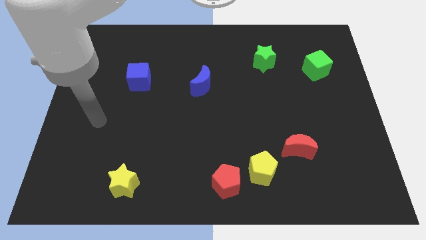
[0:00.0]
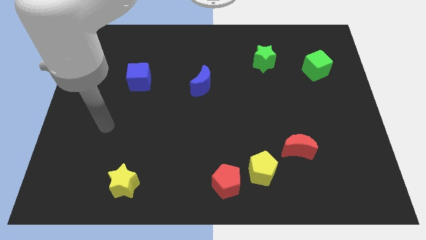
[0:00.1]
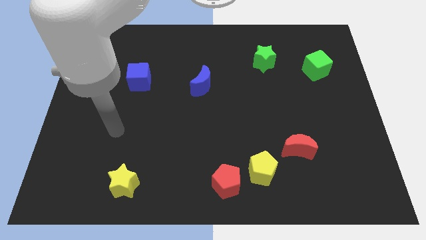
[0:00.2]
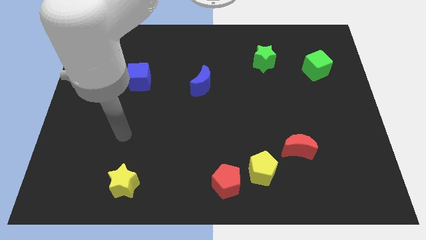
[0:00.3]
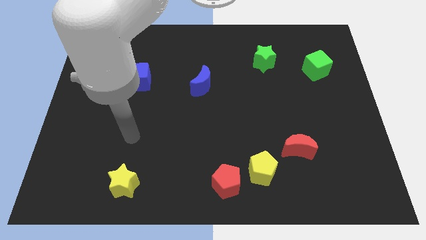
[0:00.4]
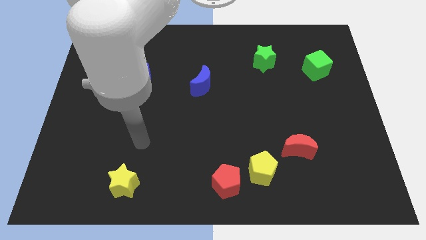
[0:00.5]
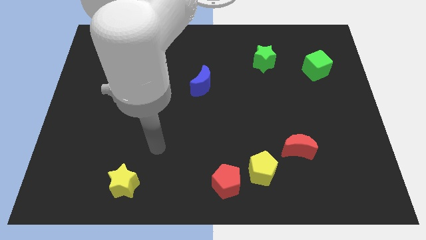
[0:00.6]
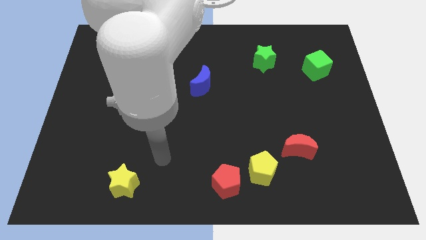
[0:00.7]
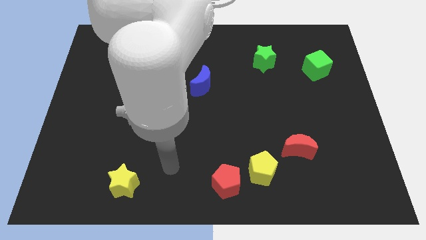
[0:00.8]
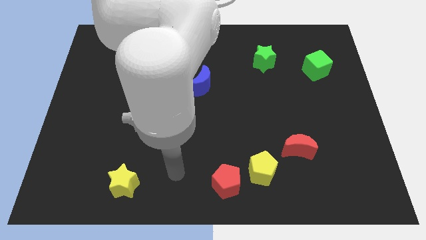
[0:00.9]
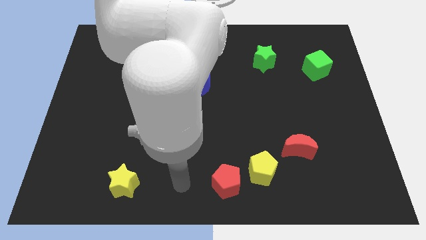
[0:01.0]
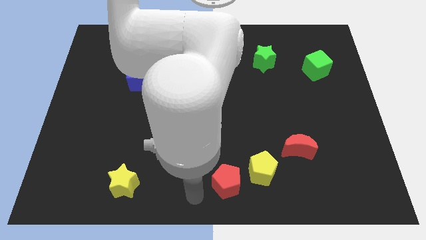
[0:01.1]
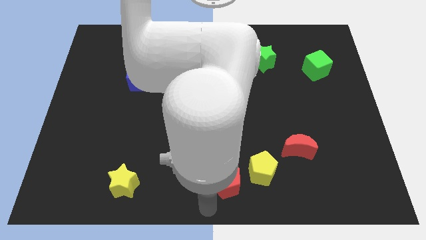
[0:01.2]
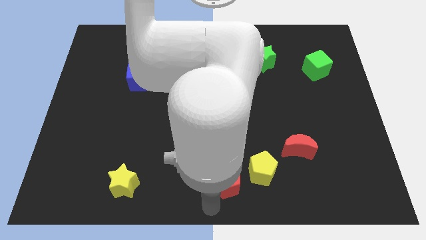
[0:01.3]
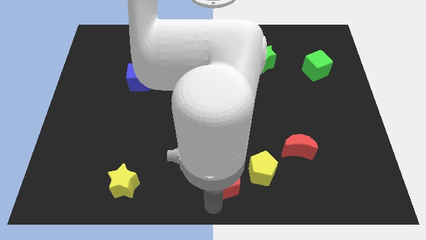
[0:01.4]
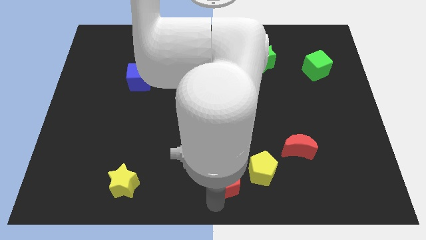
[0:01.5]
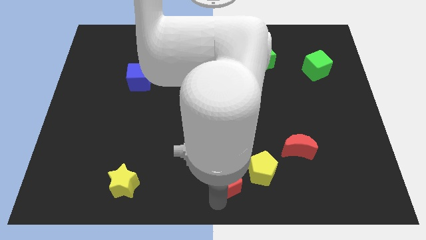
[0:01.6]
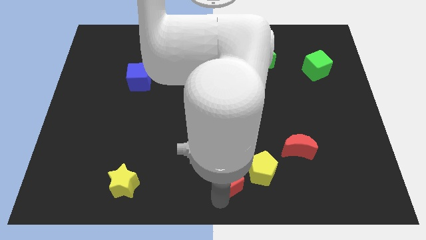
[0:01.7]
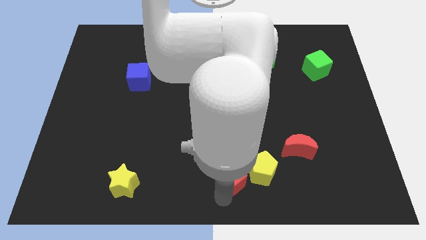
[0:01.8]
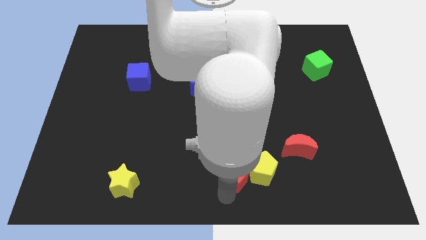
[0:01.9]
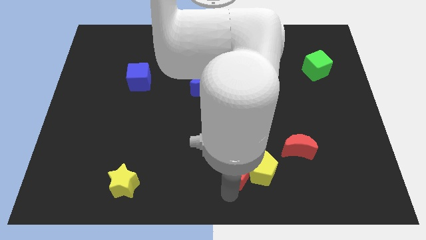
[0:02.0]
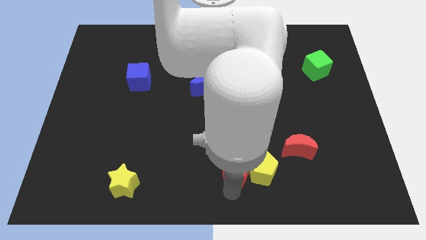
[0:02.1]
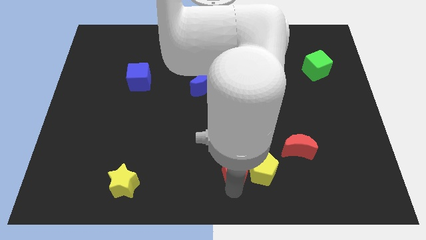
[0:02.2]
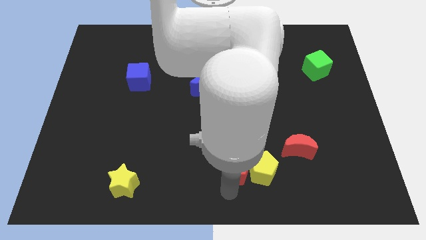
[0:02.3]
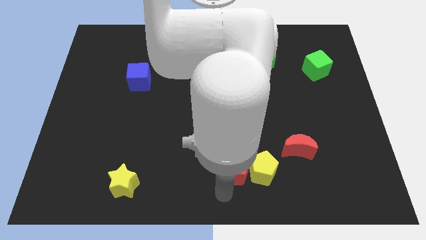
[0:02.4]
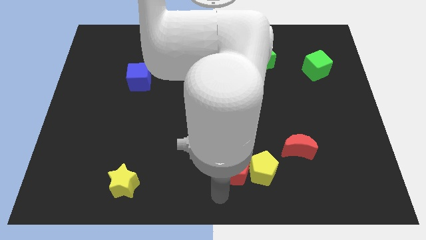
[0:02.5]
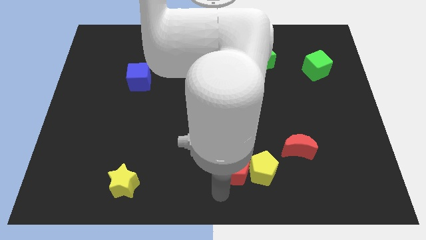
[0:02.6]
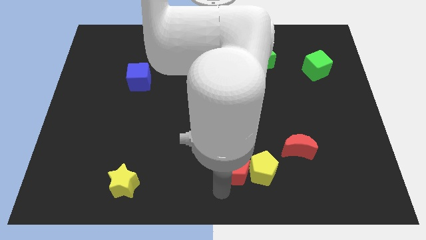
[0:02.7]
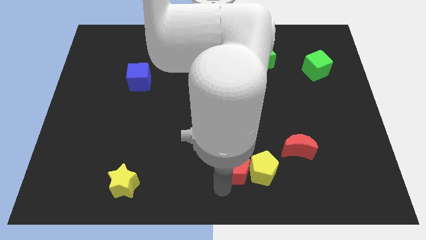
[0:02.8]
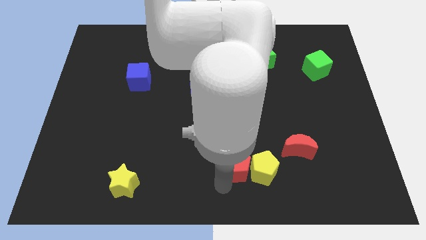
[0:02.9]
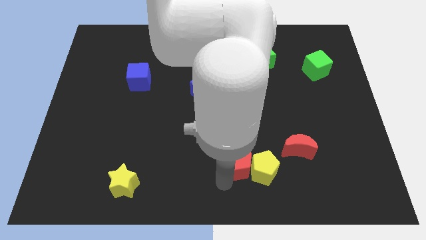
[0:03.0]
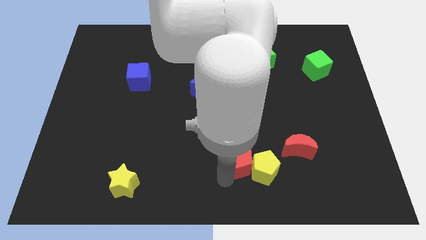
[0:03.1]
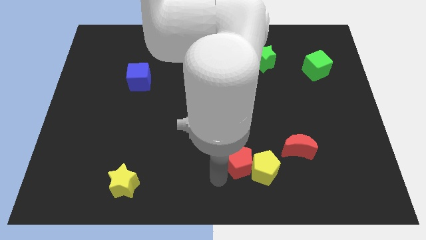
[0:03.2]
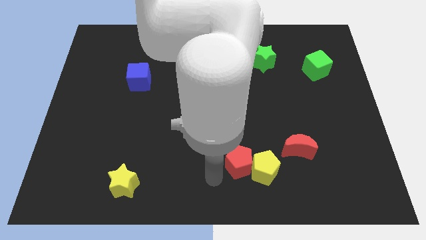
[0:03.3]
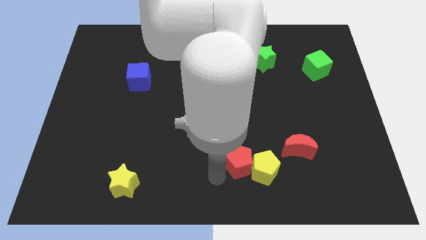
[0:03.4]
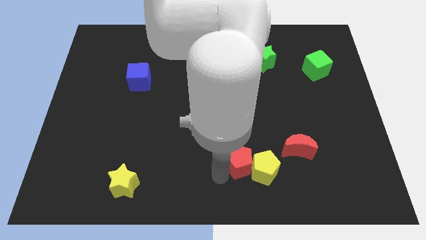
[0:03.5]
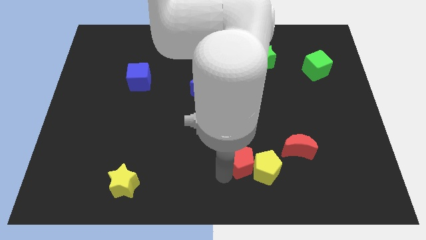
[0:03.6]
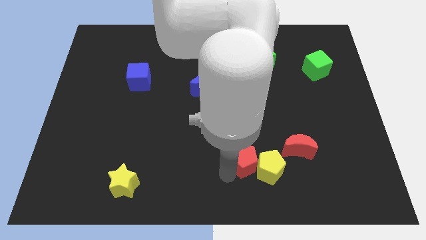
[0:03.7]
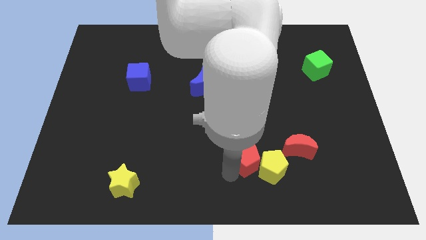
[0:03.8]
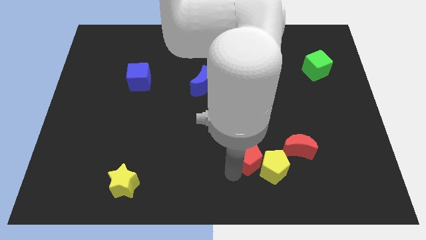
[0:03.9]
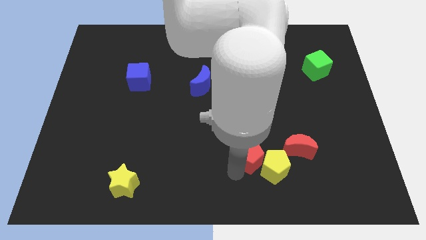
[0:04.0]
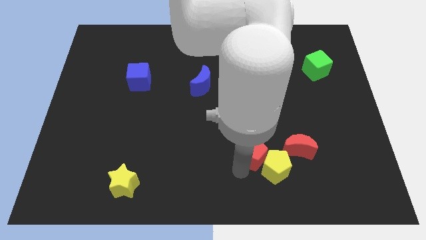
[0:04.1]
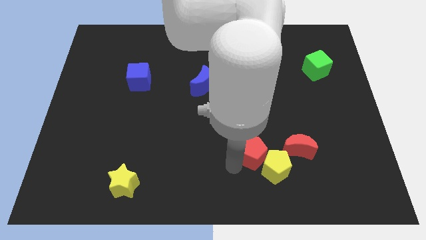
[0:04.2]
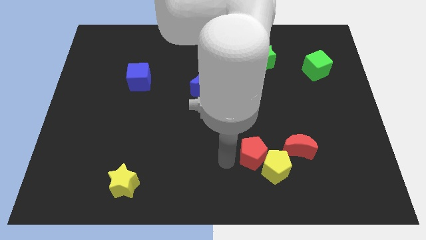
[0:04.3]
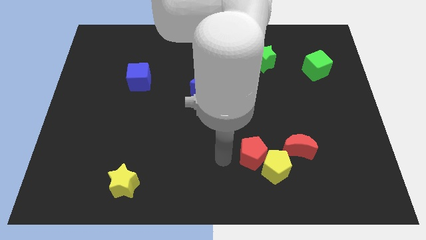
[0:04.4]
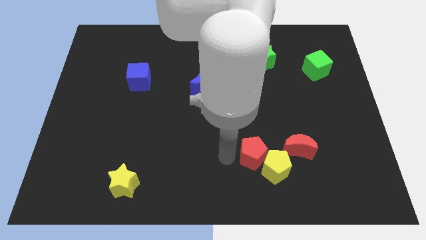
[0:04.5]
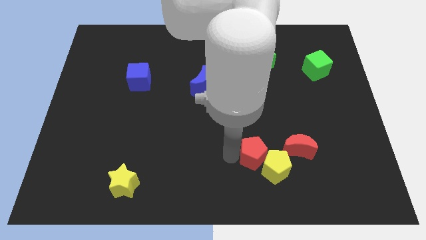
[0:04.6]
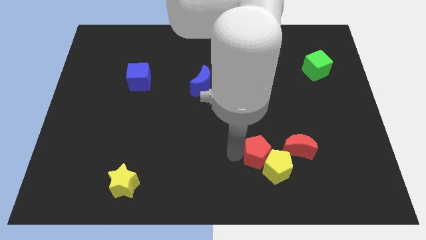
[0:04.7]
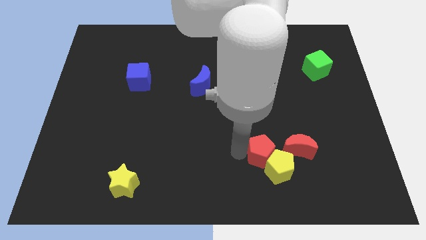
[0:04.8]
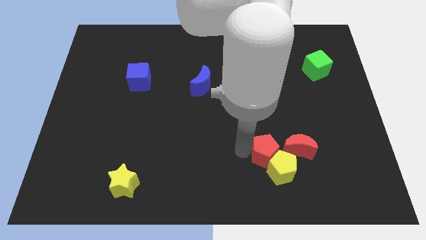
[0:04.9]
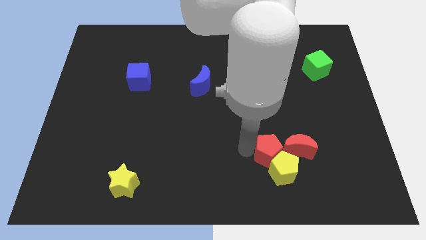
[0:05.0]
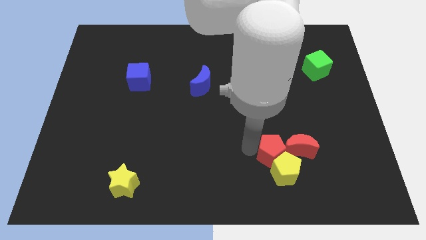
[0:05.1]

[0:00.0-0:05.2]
slide the red pentagon towards the red moon

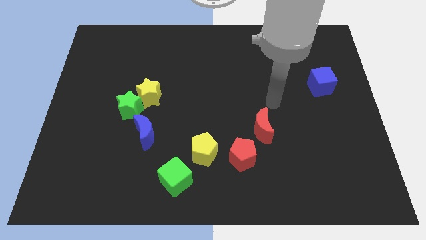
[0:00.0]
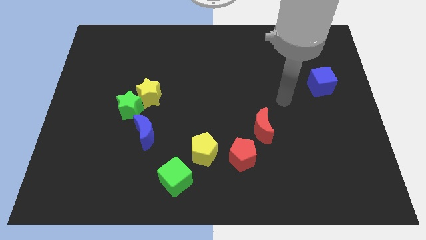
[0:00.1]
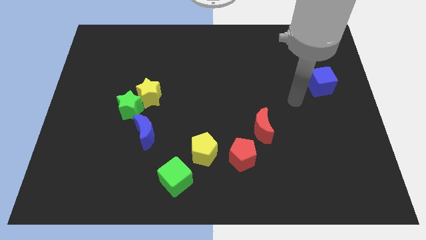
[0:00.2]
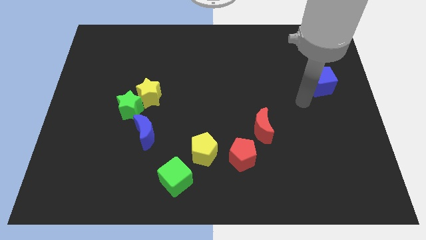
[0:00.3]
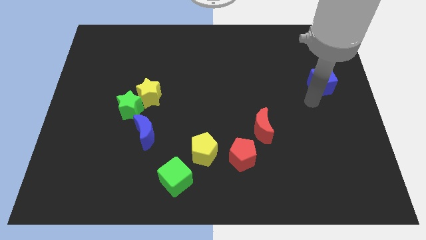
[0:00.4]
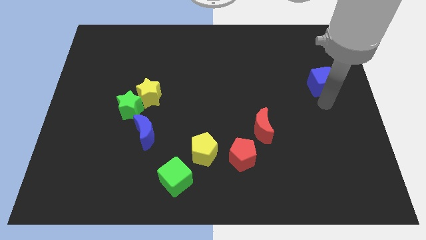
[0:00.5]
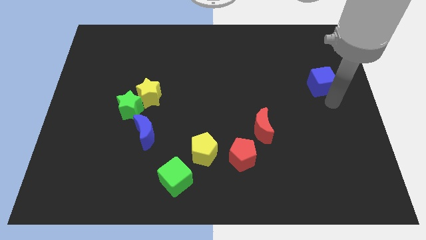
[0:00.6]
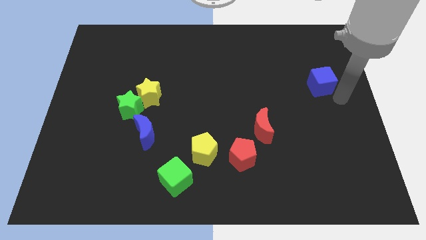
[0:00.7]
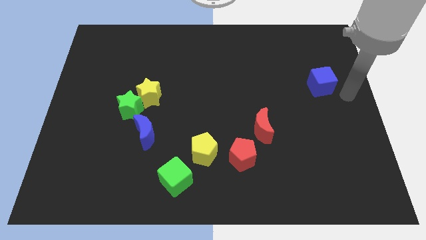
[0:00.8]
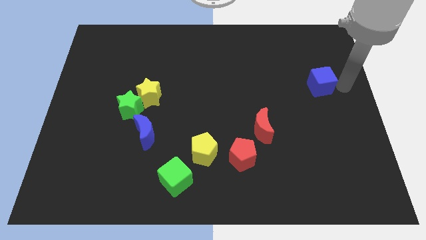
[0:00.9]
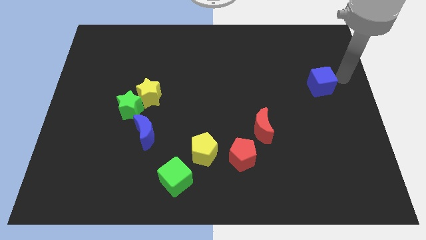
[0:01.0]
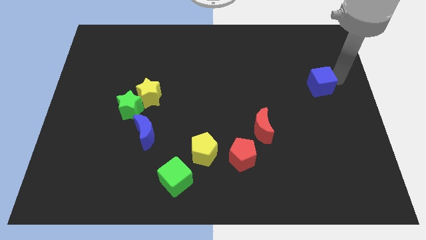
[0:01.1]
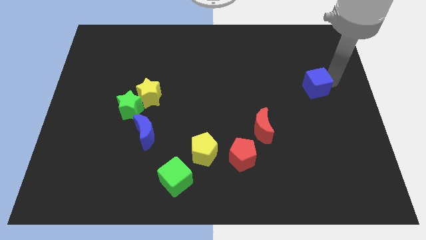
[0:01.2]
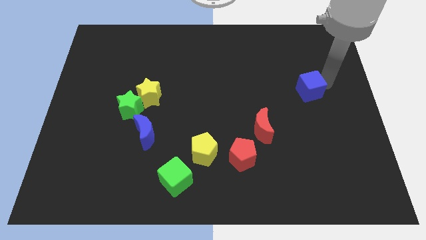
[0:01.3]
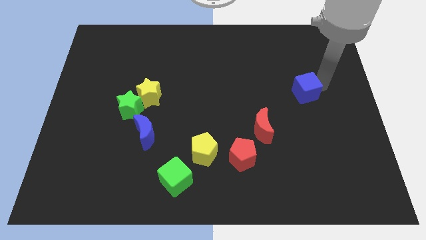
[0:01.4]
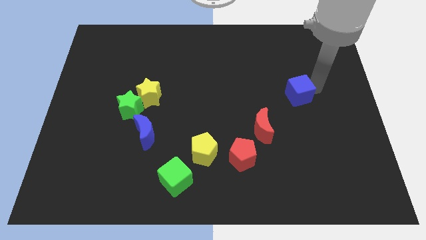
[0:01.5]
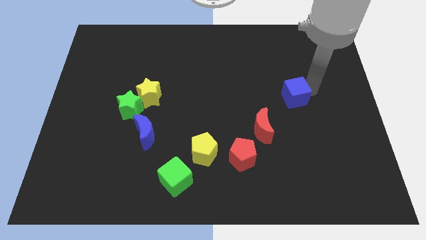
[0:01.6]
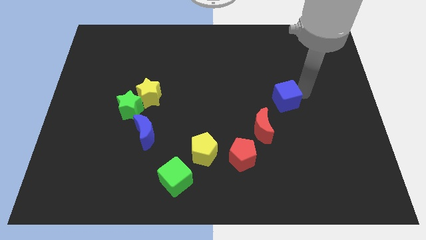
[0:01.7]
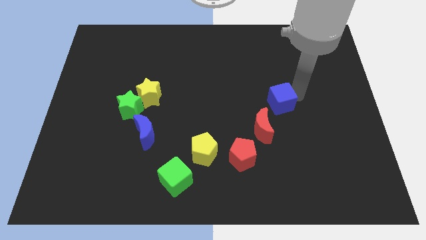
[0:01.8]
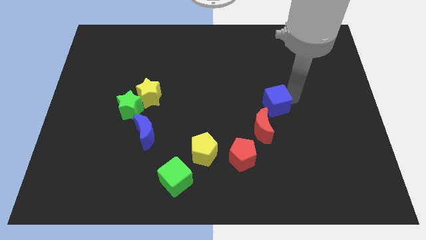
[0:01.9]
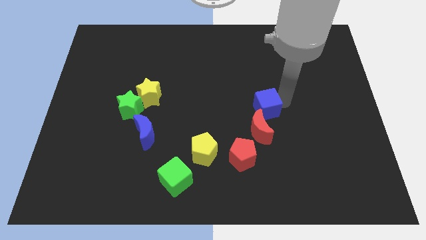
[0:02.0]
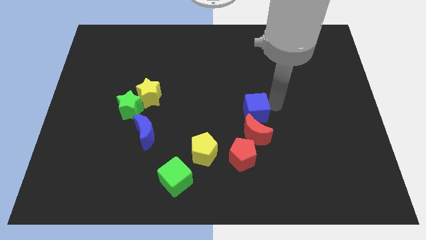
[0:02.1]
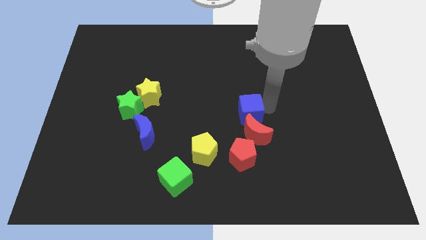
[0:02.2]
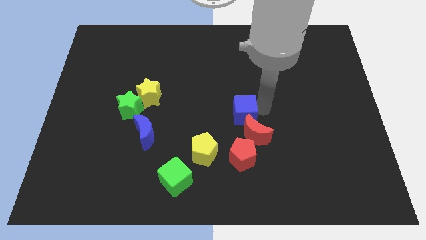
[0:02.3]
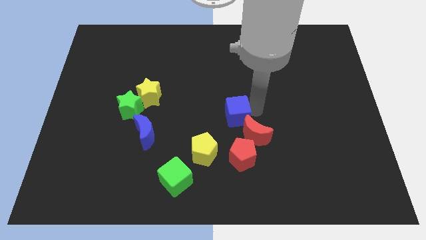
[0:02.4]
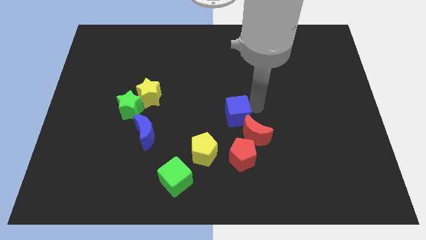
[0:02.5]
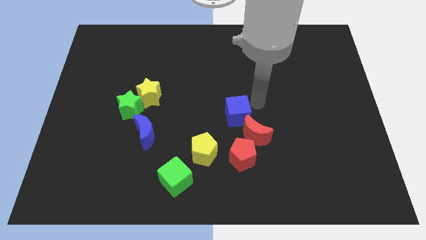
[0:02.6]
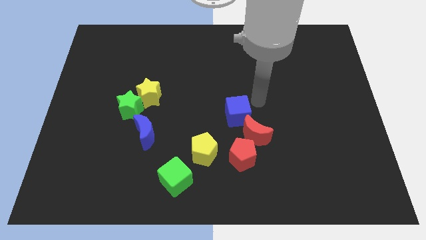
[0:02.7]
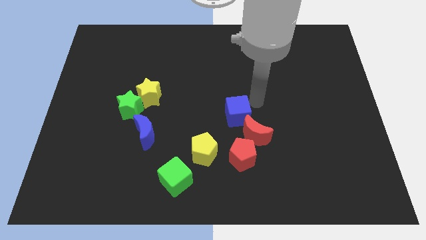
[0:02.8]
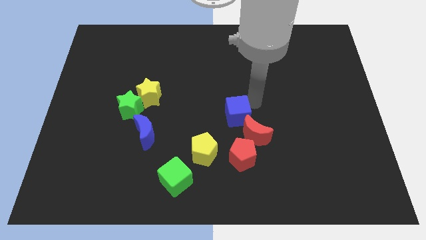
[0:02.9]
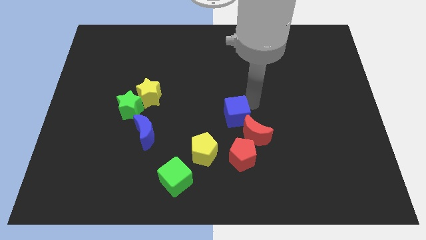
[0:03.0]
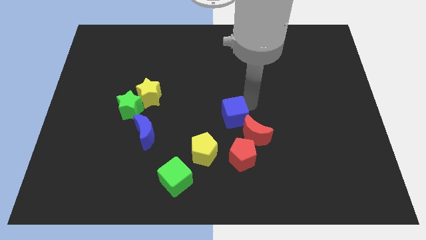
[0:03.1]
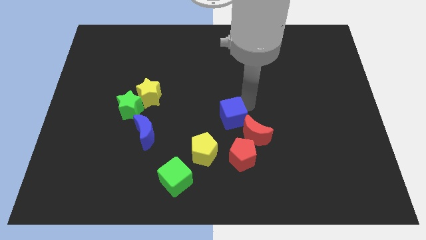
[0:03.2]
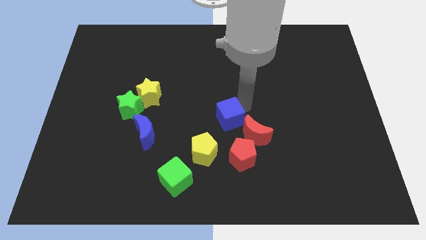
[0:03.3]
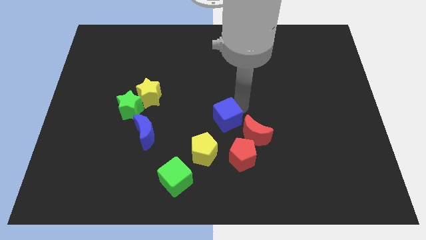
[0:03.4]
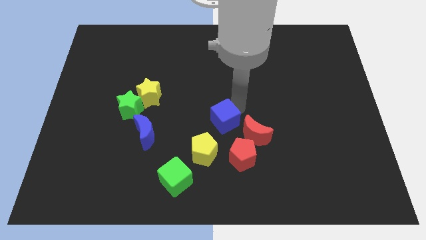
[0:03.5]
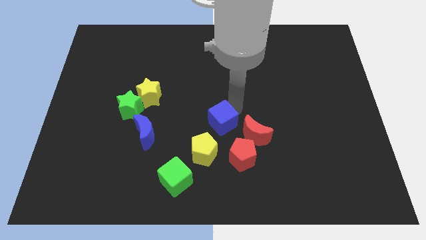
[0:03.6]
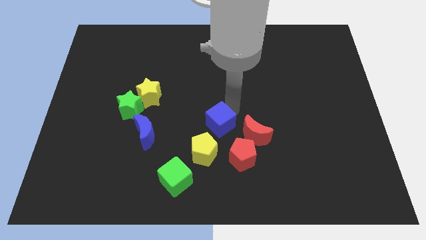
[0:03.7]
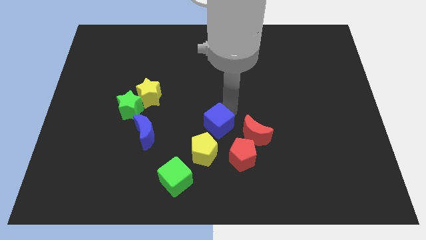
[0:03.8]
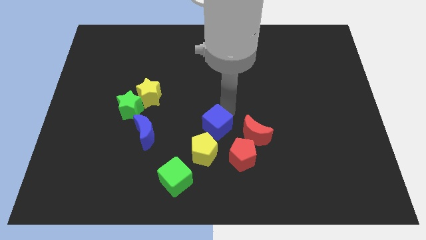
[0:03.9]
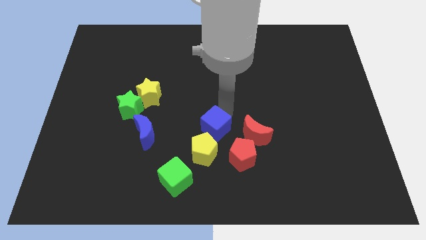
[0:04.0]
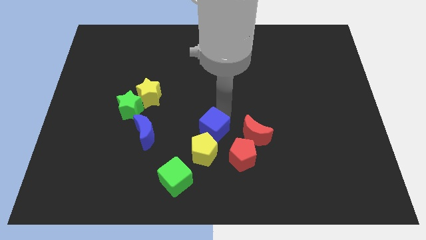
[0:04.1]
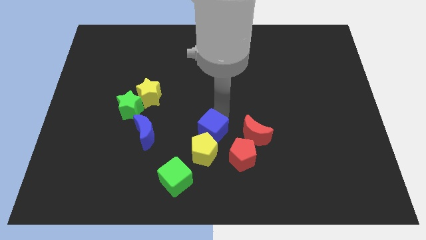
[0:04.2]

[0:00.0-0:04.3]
put the blue cube close to the yellow pentagon
